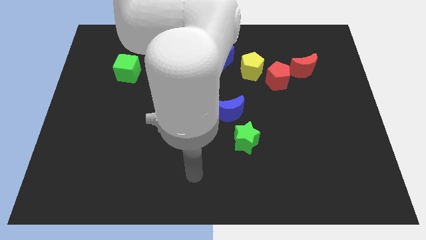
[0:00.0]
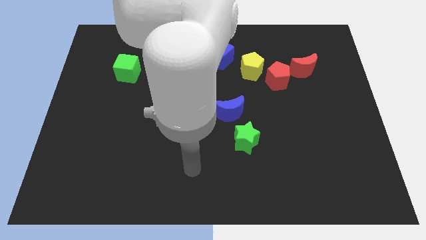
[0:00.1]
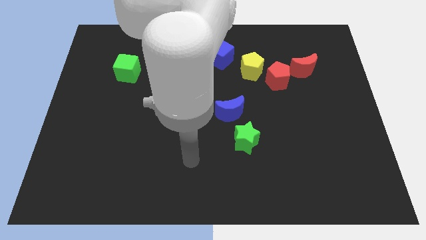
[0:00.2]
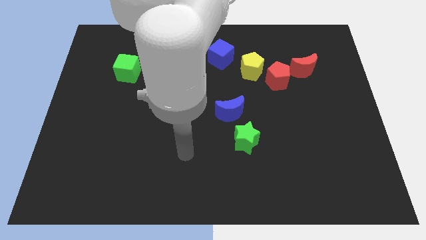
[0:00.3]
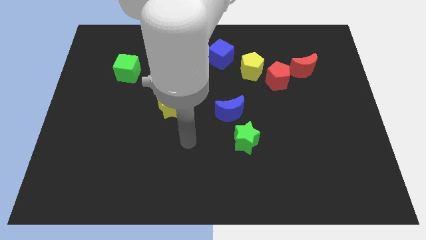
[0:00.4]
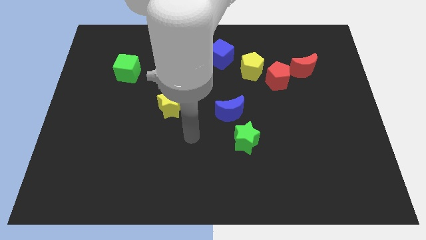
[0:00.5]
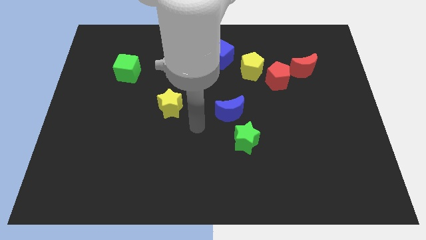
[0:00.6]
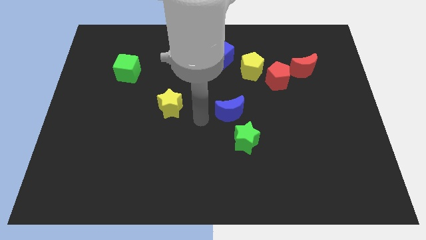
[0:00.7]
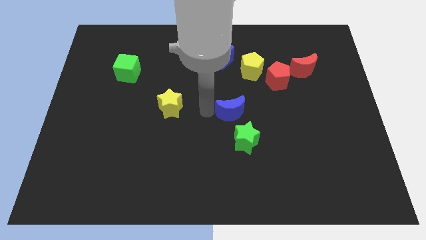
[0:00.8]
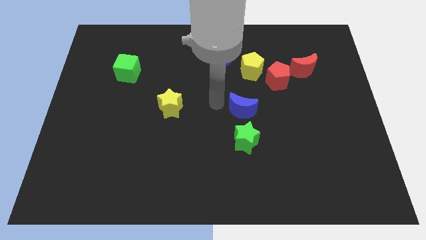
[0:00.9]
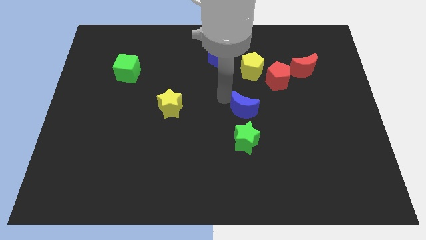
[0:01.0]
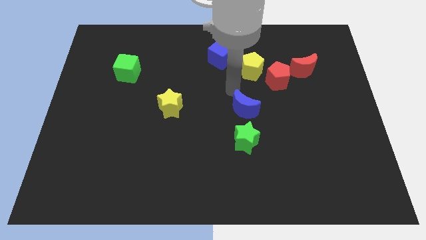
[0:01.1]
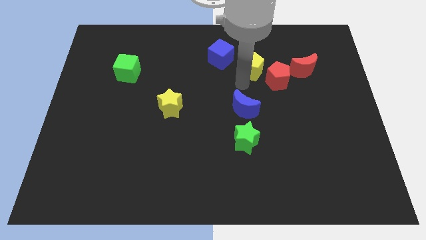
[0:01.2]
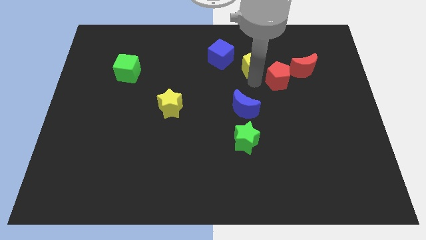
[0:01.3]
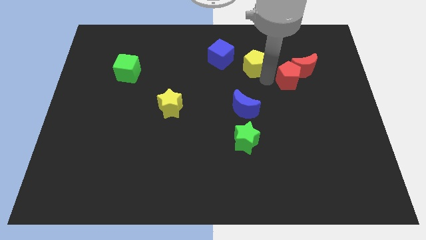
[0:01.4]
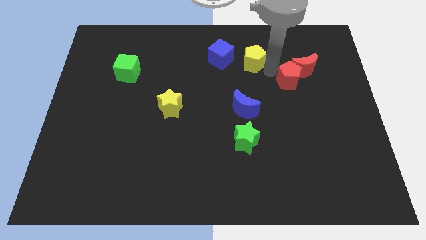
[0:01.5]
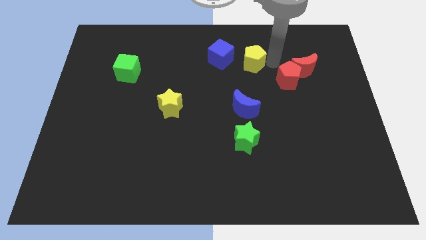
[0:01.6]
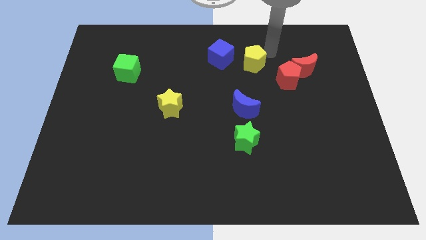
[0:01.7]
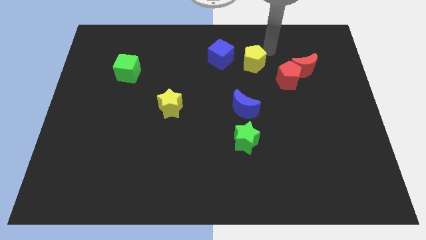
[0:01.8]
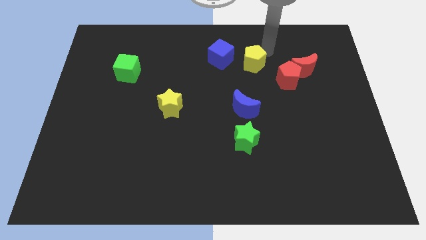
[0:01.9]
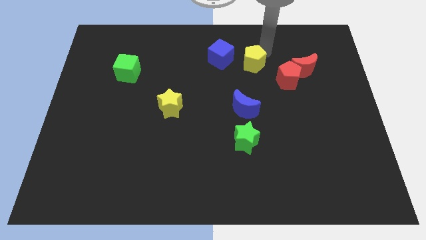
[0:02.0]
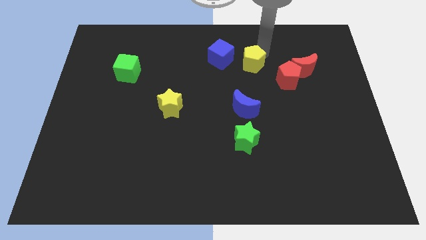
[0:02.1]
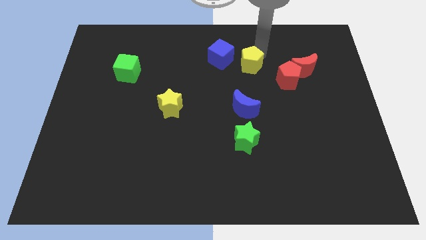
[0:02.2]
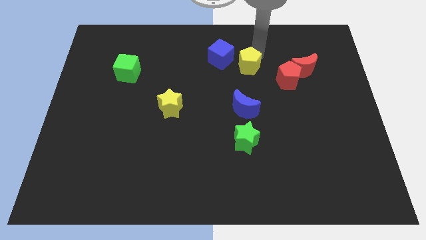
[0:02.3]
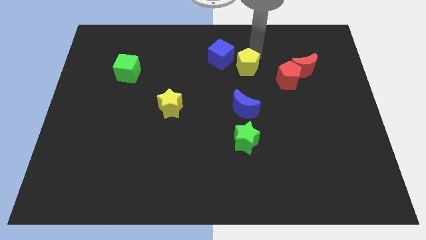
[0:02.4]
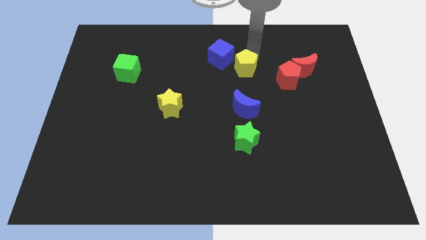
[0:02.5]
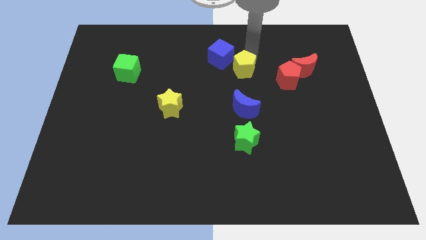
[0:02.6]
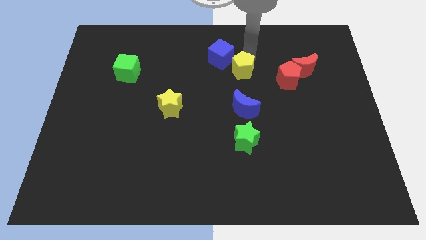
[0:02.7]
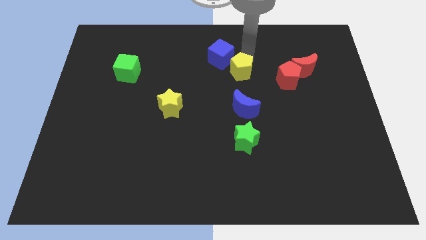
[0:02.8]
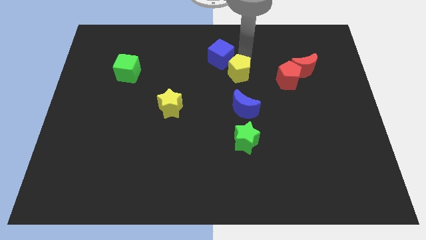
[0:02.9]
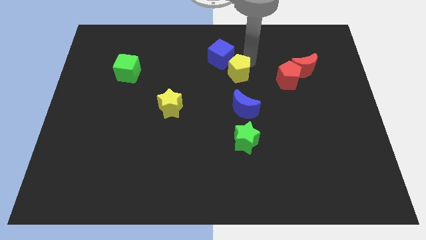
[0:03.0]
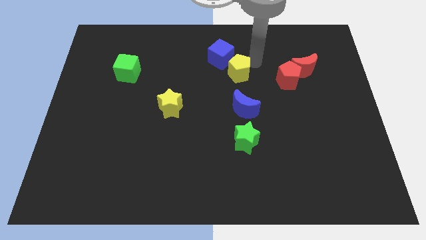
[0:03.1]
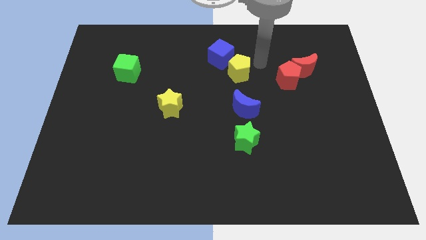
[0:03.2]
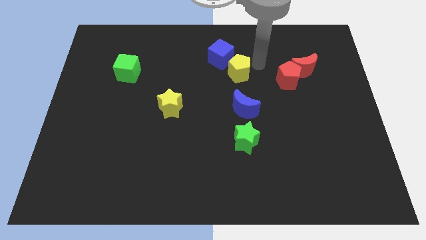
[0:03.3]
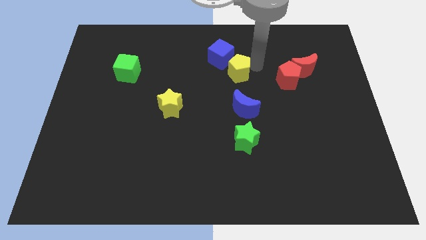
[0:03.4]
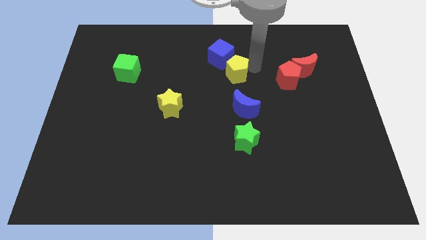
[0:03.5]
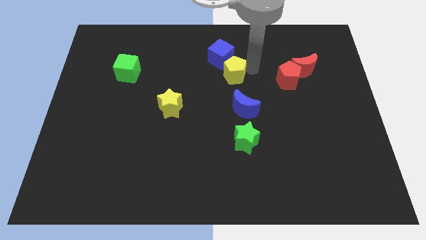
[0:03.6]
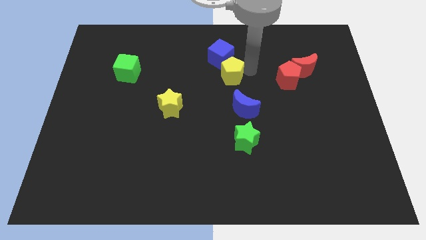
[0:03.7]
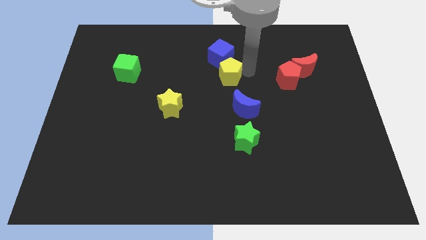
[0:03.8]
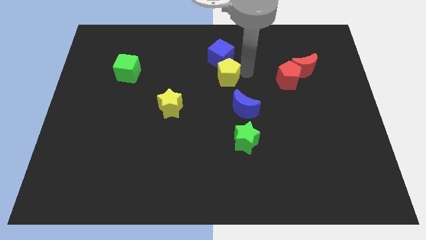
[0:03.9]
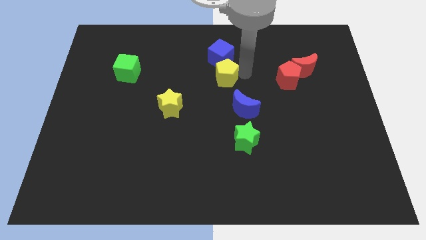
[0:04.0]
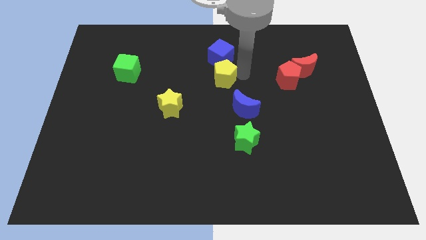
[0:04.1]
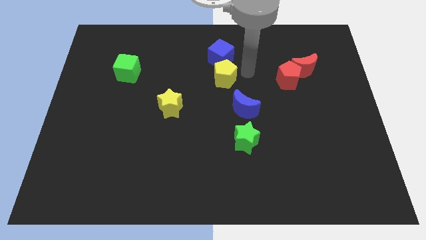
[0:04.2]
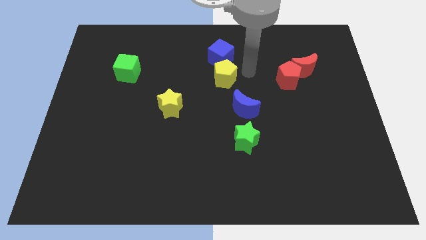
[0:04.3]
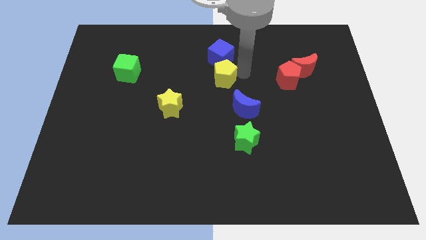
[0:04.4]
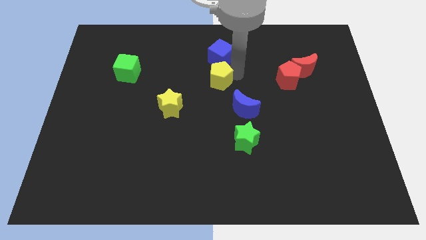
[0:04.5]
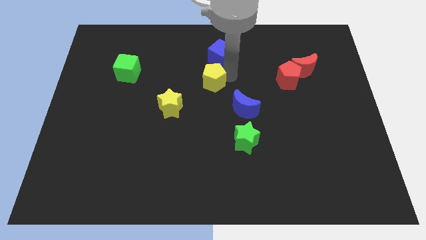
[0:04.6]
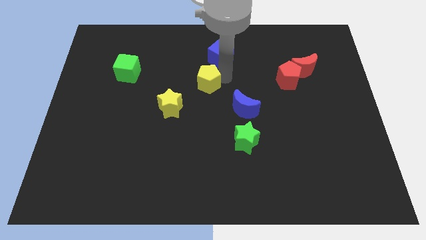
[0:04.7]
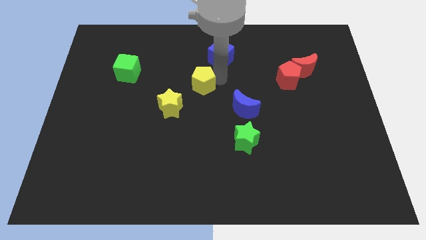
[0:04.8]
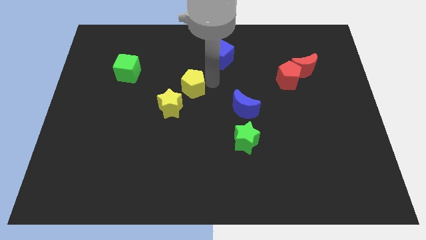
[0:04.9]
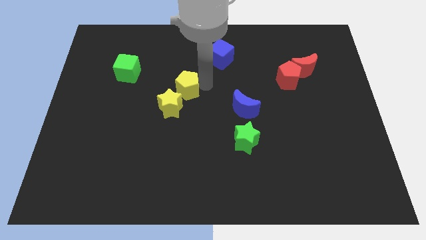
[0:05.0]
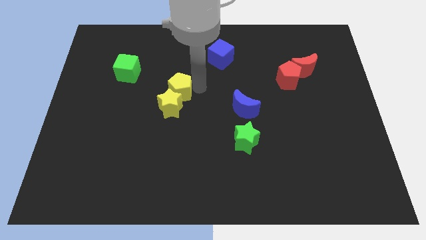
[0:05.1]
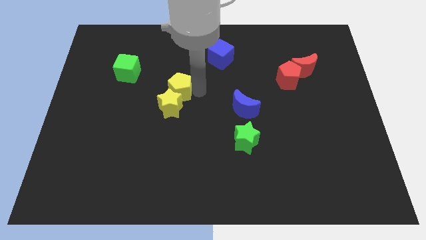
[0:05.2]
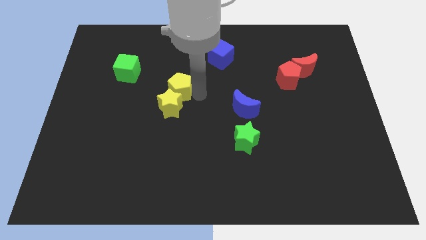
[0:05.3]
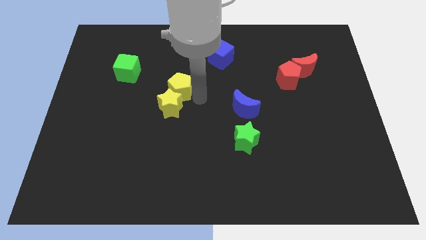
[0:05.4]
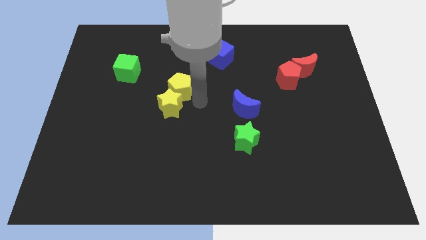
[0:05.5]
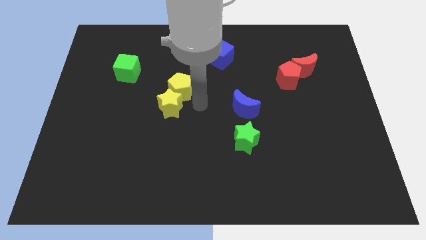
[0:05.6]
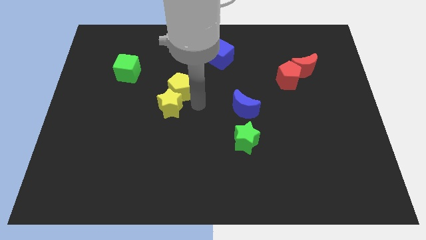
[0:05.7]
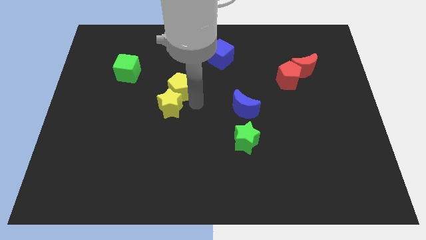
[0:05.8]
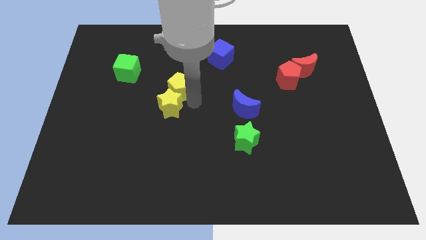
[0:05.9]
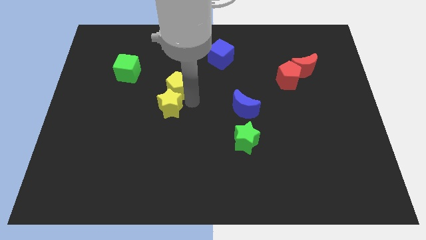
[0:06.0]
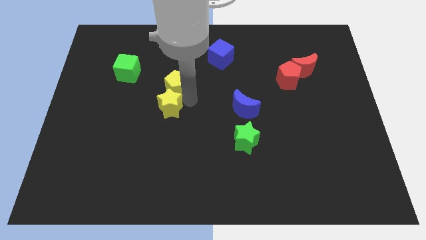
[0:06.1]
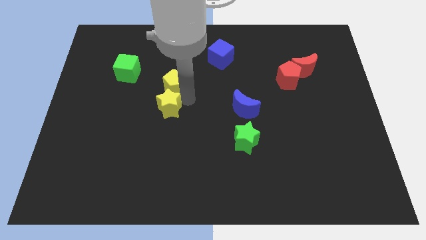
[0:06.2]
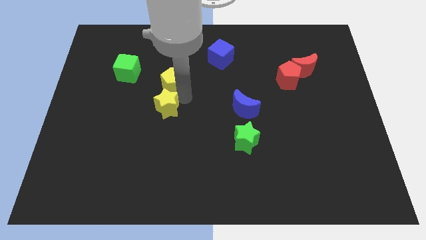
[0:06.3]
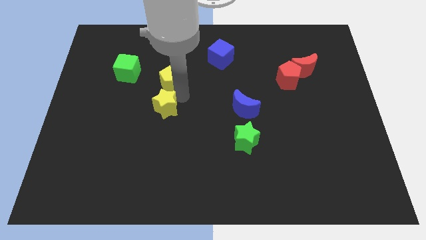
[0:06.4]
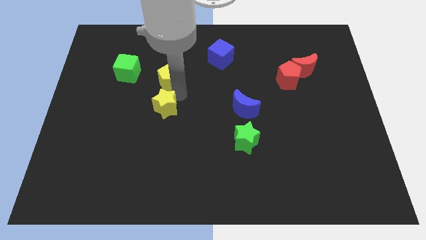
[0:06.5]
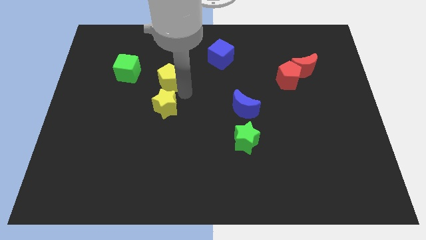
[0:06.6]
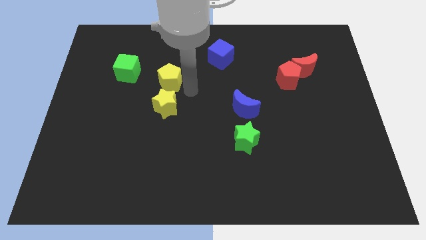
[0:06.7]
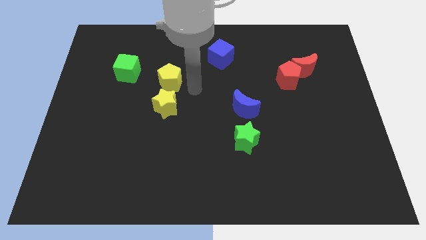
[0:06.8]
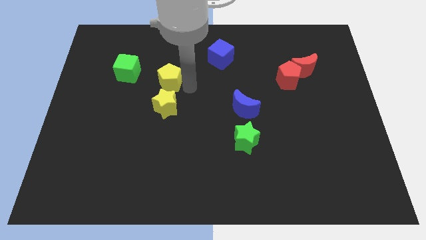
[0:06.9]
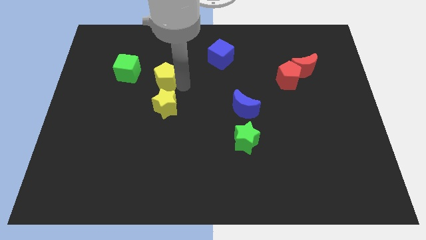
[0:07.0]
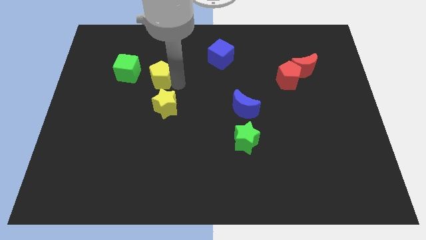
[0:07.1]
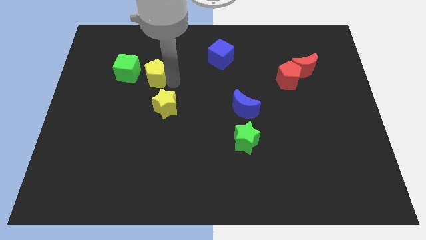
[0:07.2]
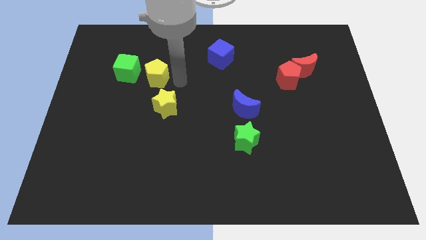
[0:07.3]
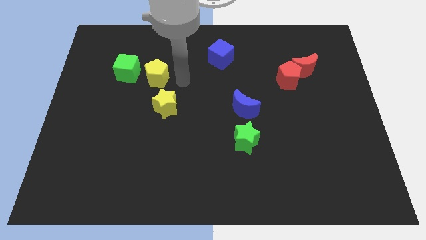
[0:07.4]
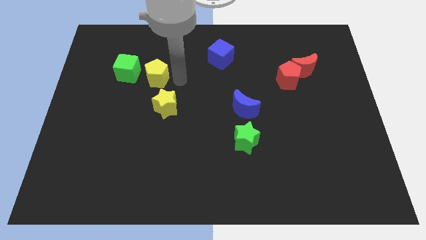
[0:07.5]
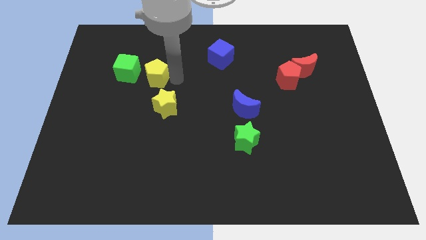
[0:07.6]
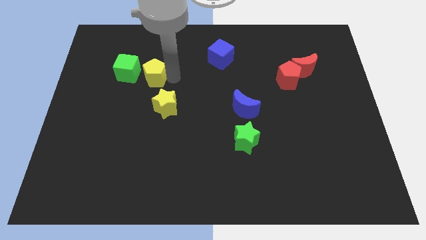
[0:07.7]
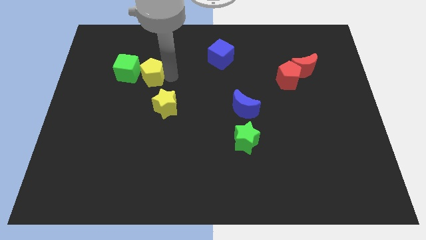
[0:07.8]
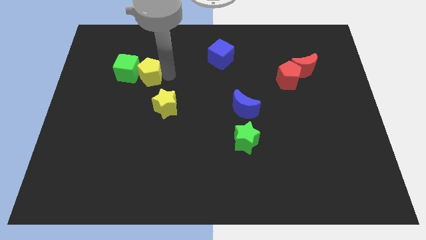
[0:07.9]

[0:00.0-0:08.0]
push the yellow pentagon to the green cube
